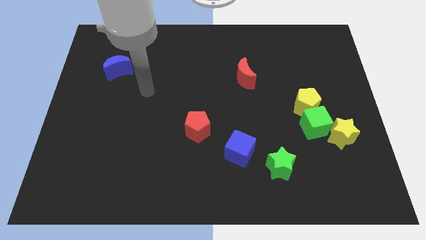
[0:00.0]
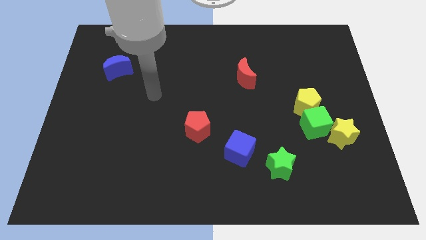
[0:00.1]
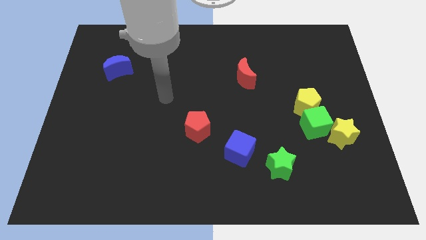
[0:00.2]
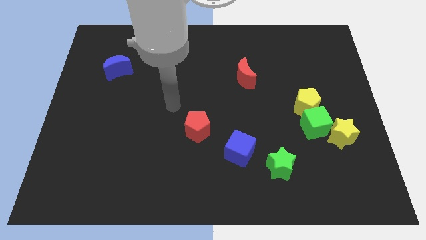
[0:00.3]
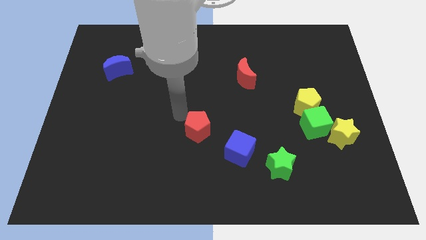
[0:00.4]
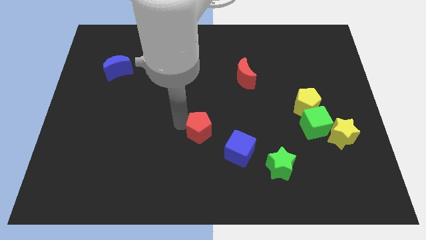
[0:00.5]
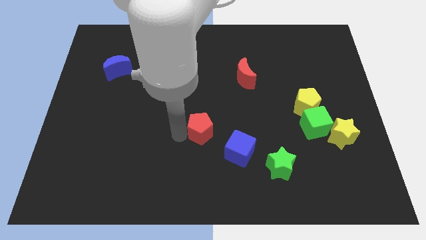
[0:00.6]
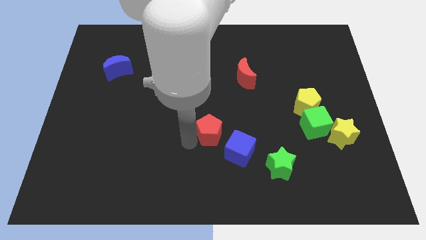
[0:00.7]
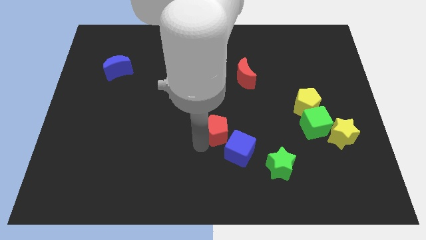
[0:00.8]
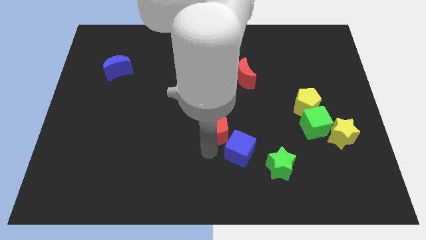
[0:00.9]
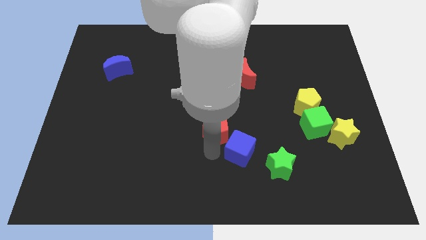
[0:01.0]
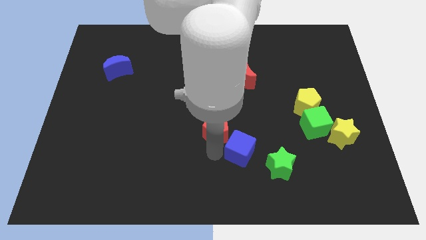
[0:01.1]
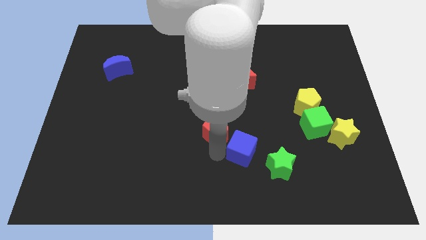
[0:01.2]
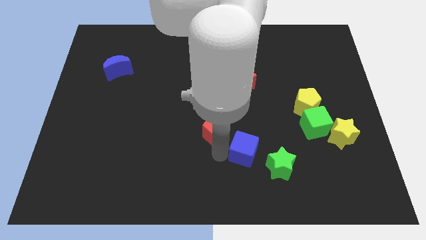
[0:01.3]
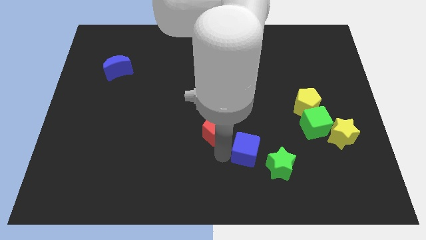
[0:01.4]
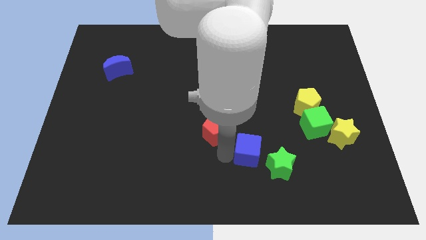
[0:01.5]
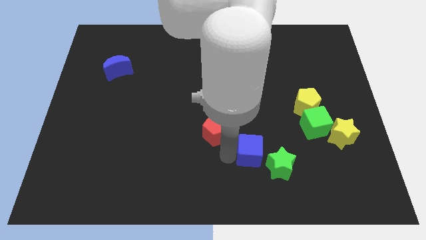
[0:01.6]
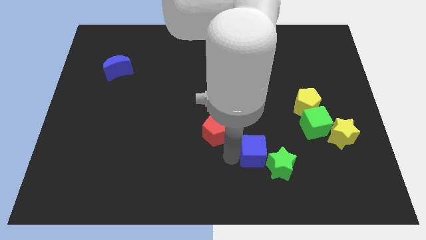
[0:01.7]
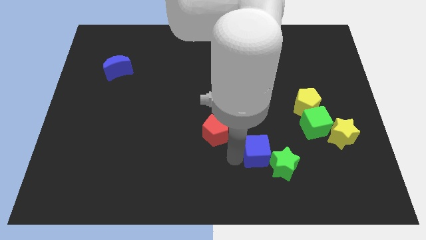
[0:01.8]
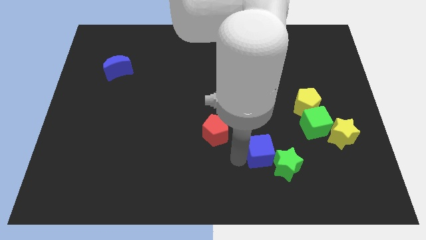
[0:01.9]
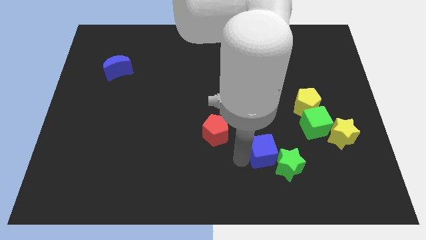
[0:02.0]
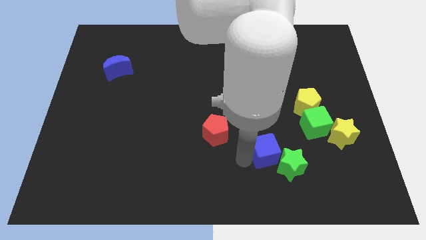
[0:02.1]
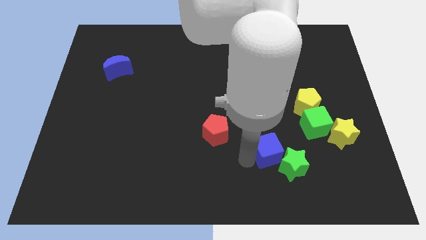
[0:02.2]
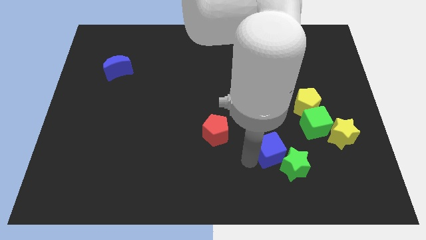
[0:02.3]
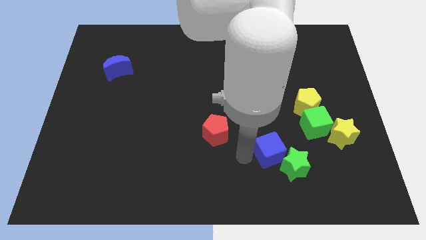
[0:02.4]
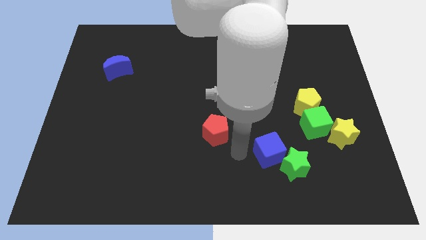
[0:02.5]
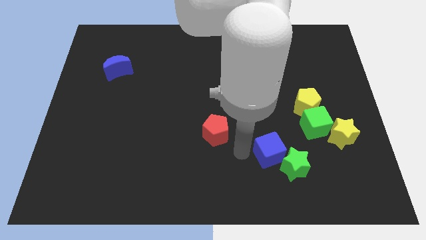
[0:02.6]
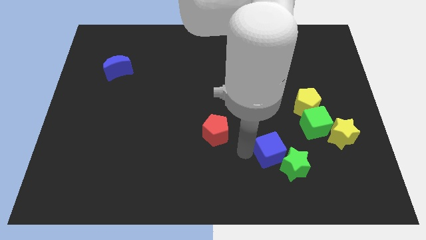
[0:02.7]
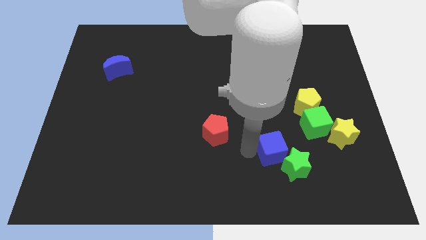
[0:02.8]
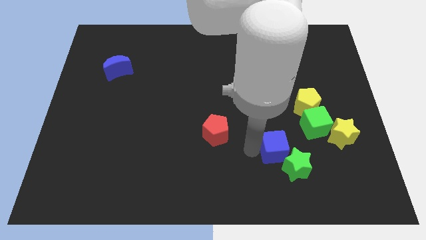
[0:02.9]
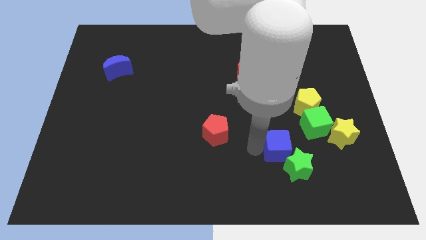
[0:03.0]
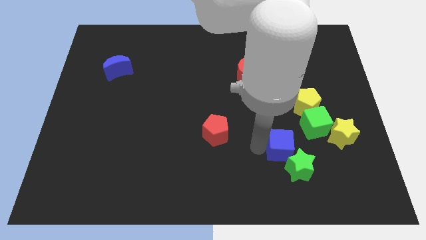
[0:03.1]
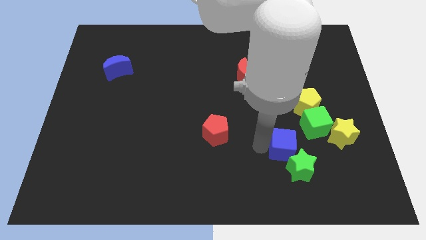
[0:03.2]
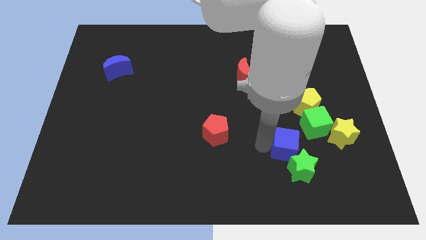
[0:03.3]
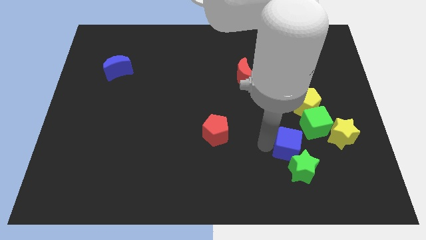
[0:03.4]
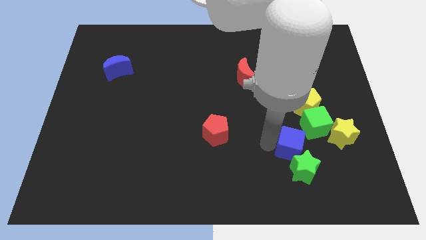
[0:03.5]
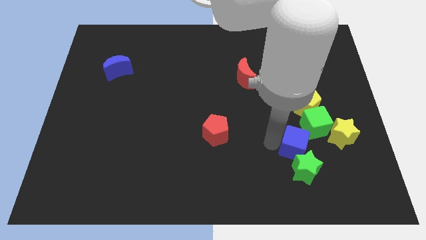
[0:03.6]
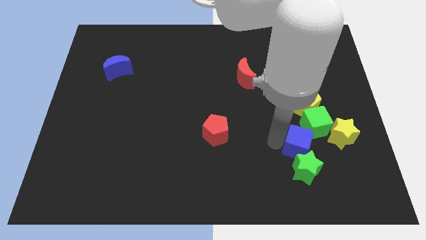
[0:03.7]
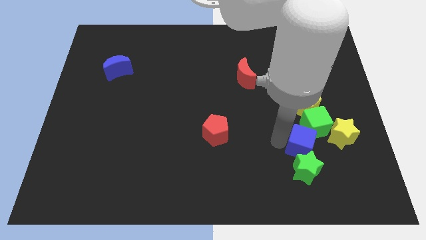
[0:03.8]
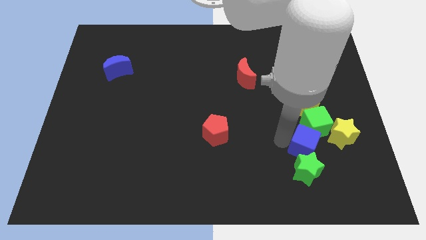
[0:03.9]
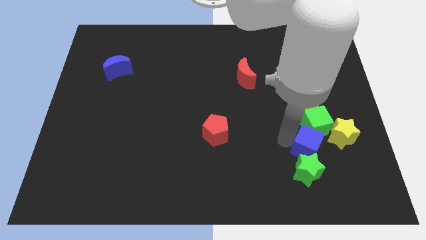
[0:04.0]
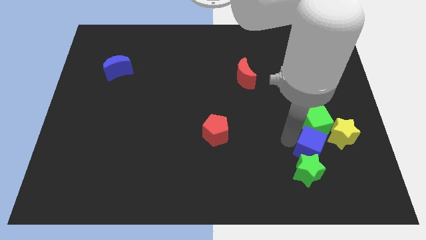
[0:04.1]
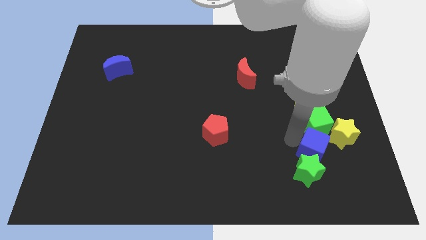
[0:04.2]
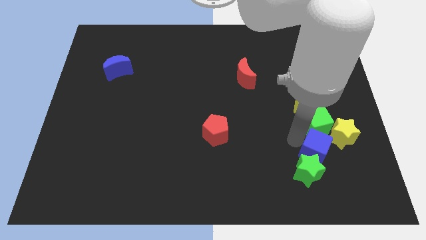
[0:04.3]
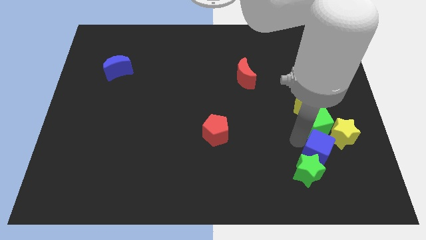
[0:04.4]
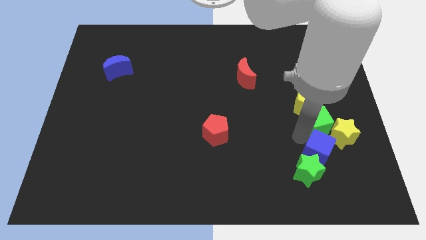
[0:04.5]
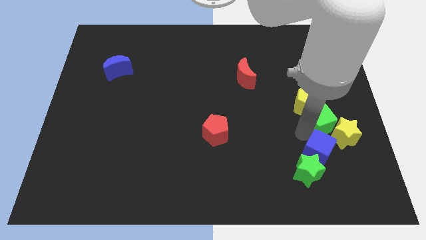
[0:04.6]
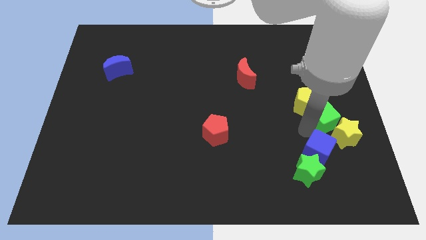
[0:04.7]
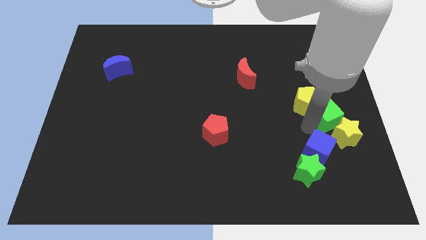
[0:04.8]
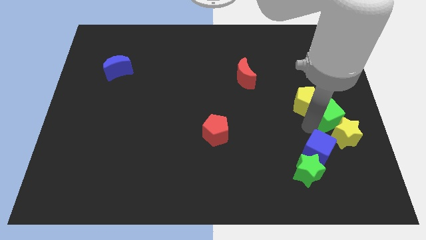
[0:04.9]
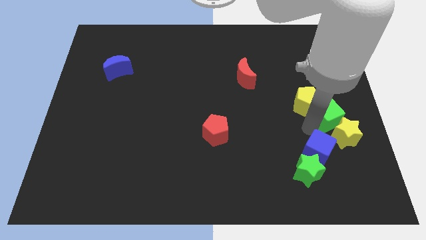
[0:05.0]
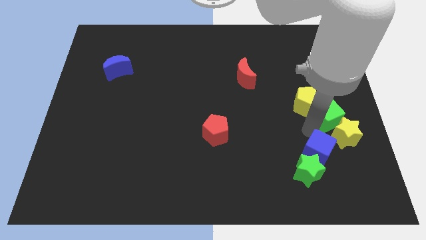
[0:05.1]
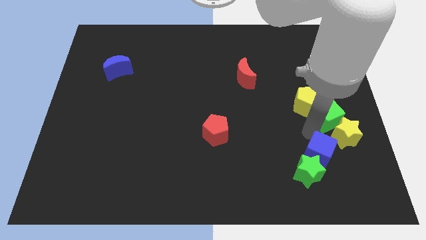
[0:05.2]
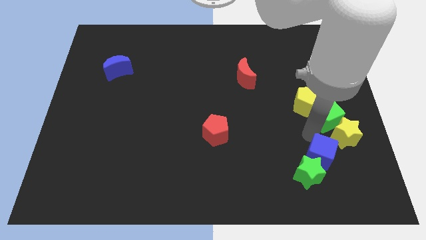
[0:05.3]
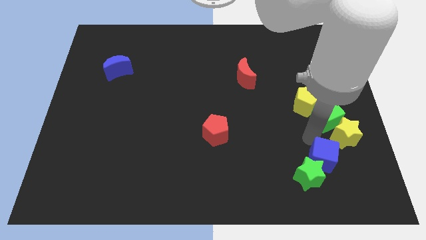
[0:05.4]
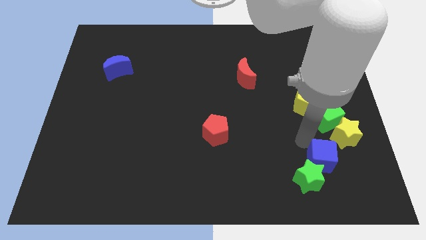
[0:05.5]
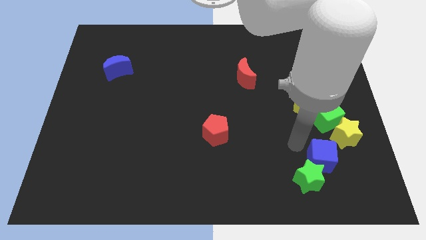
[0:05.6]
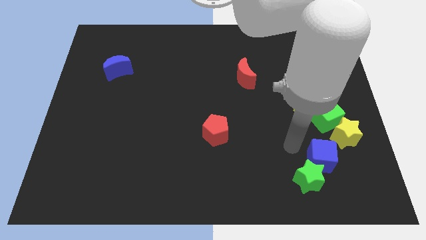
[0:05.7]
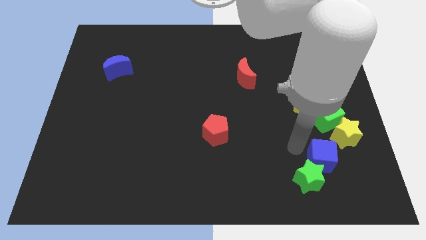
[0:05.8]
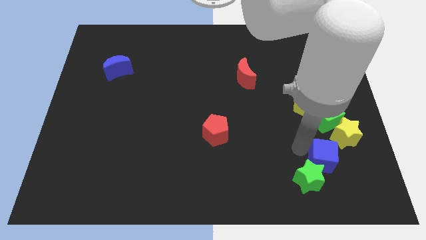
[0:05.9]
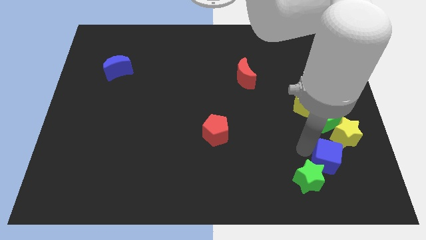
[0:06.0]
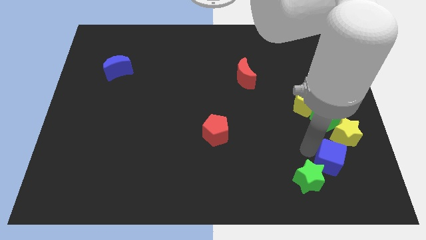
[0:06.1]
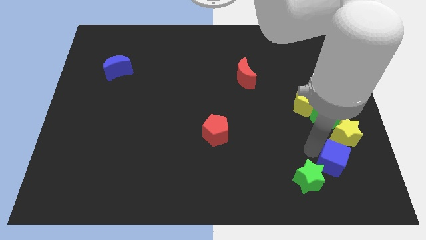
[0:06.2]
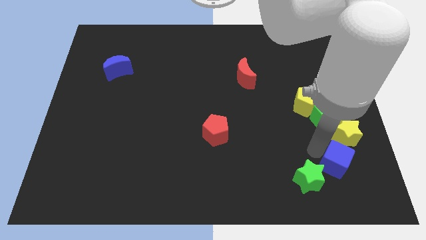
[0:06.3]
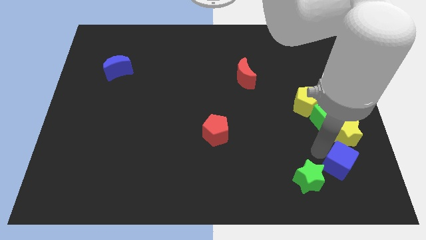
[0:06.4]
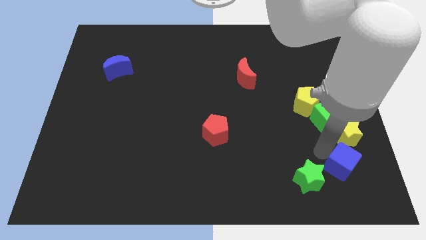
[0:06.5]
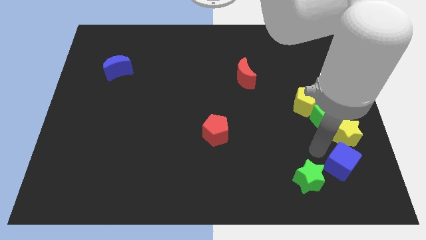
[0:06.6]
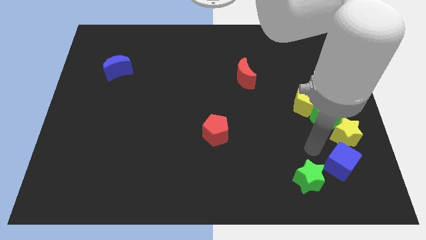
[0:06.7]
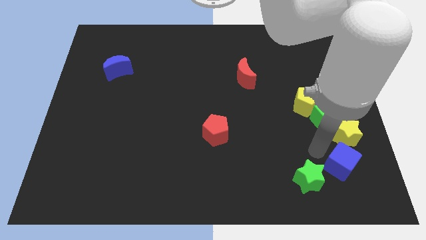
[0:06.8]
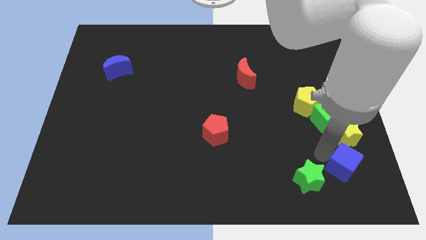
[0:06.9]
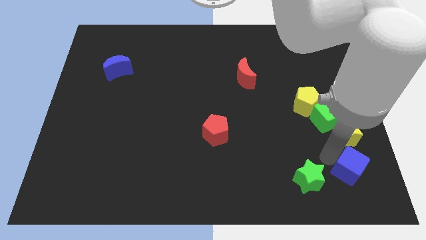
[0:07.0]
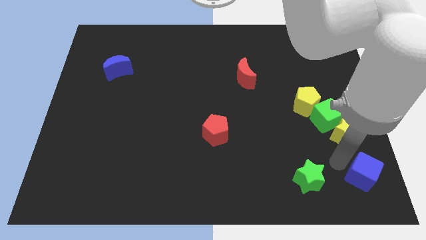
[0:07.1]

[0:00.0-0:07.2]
put the blue cube to the lower right corner
